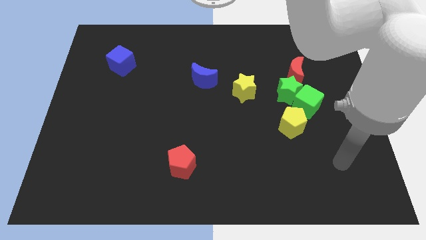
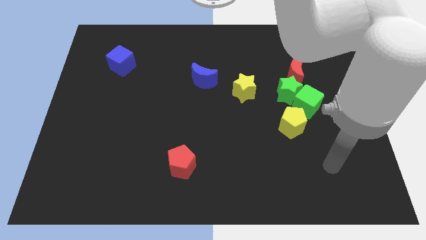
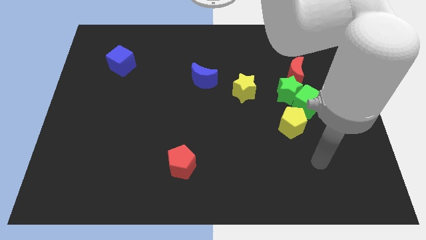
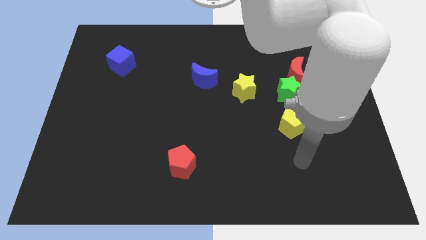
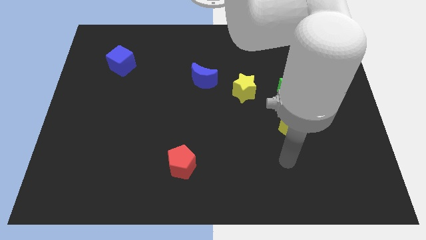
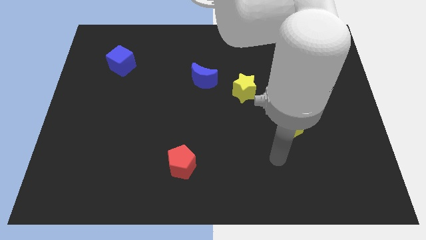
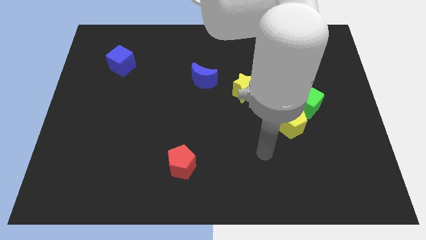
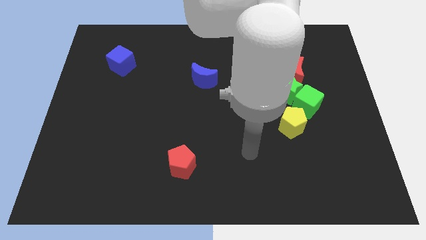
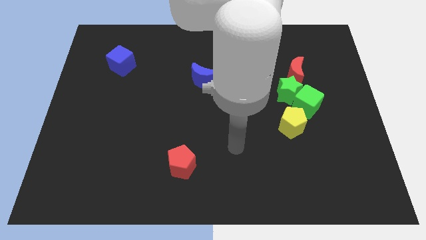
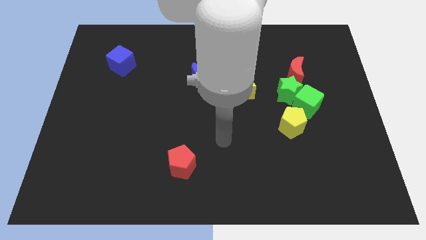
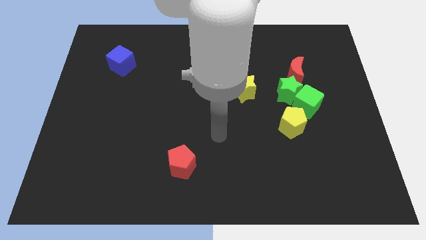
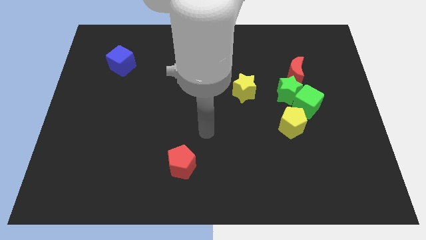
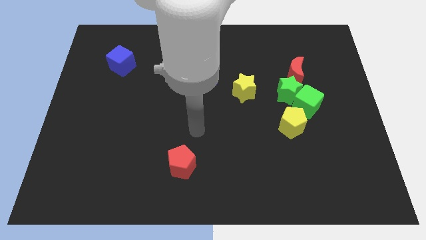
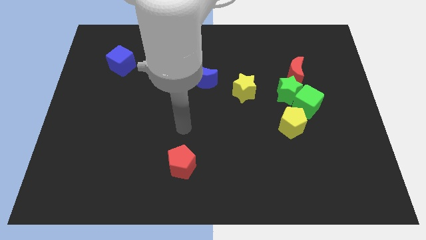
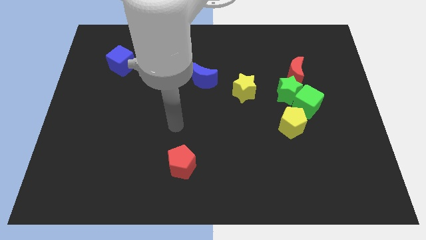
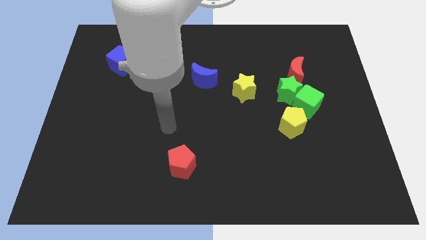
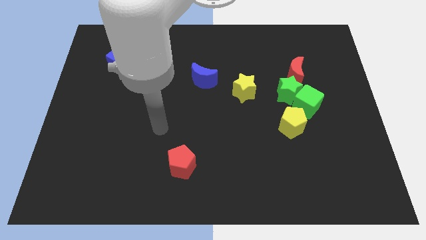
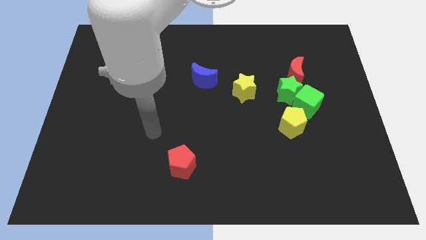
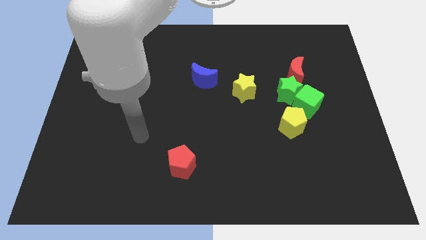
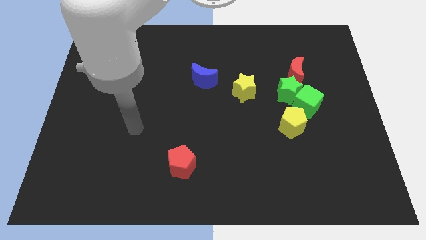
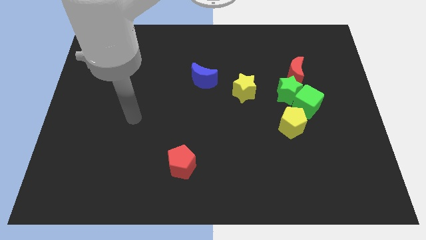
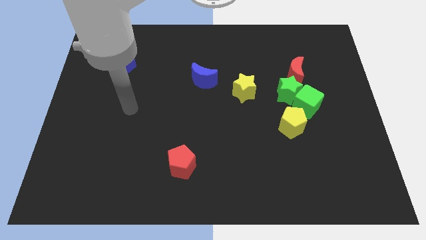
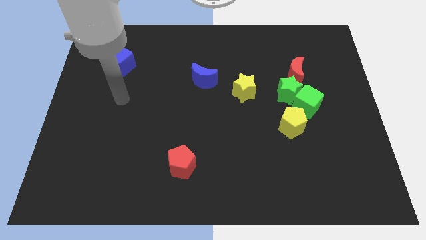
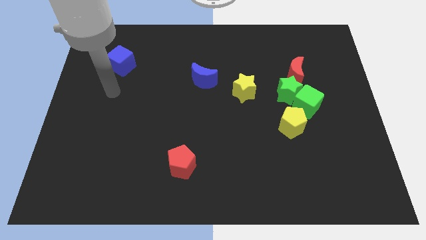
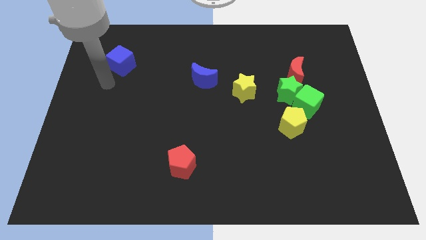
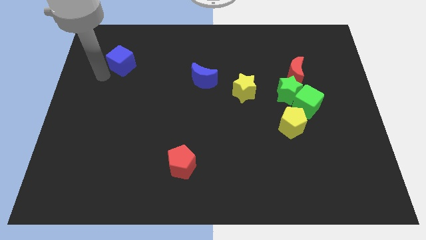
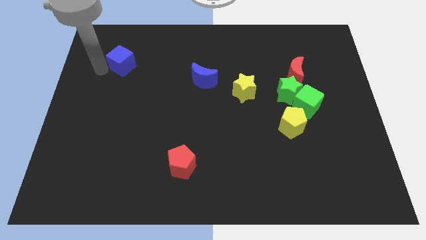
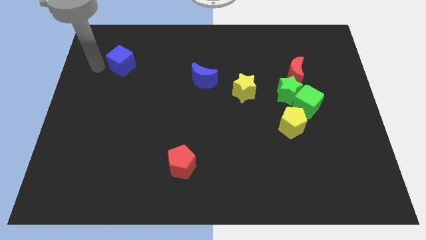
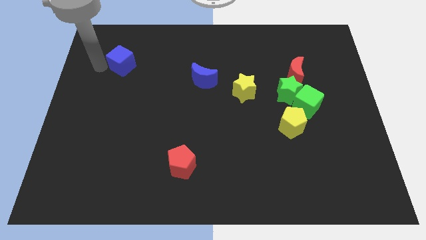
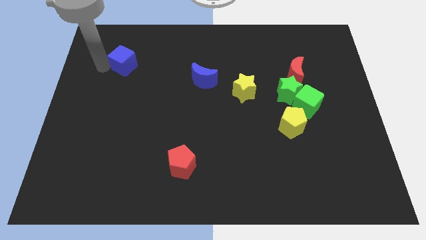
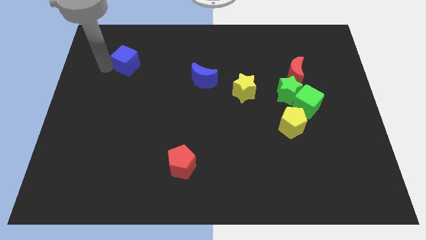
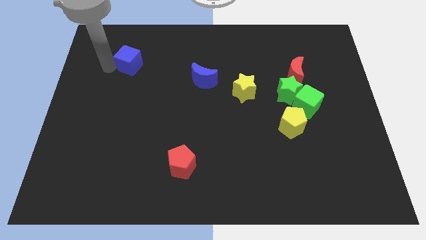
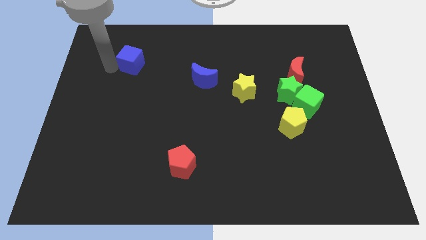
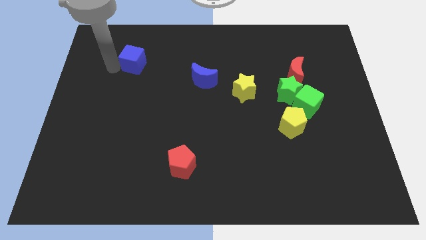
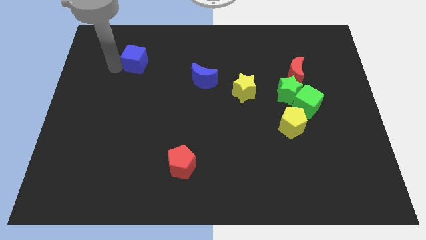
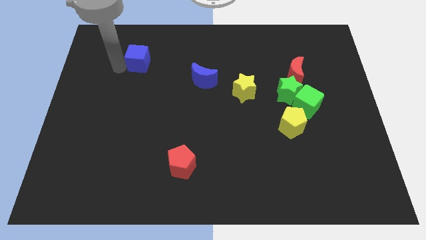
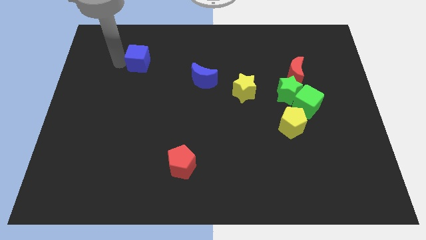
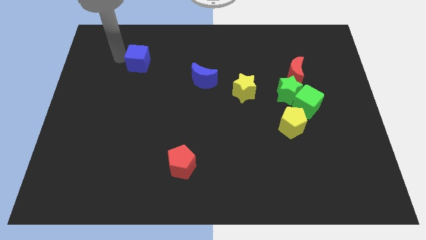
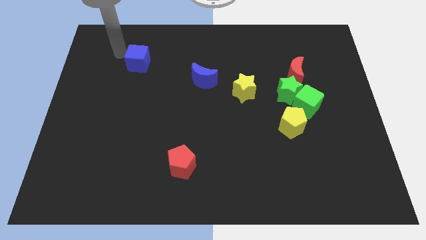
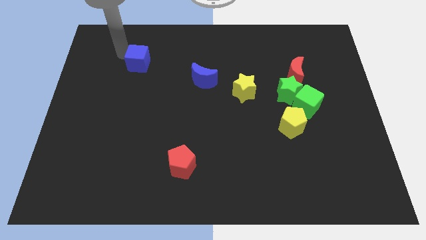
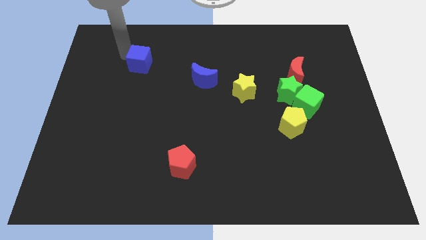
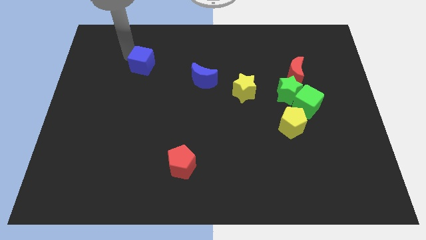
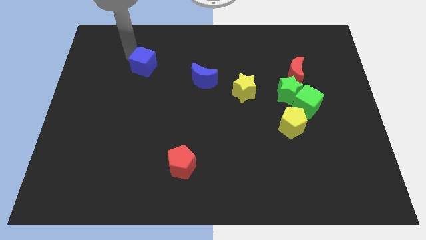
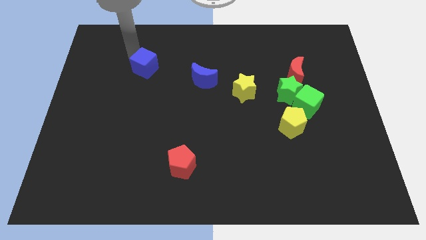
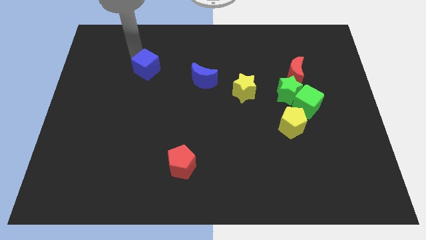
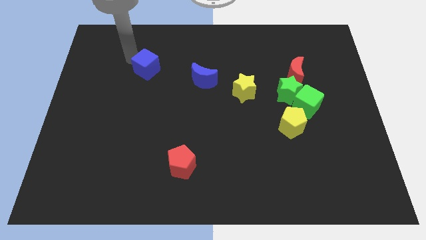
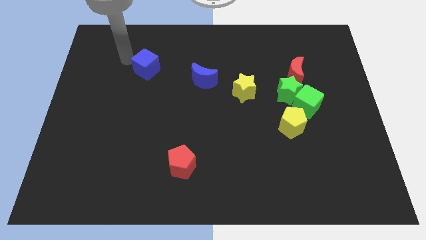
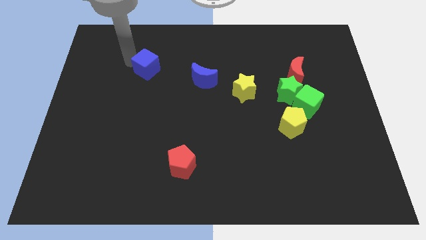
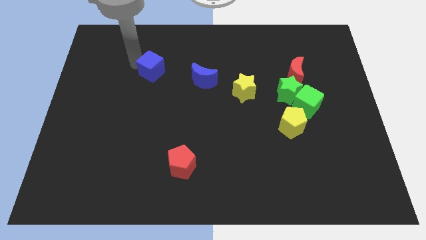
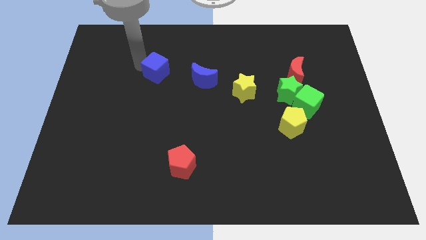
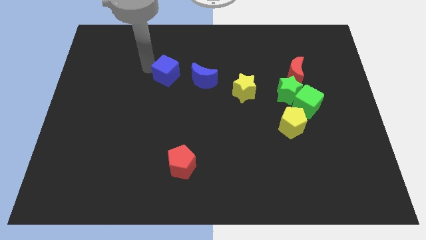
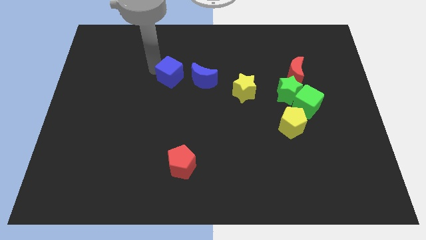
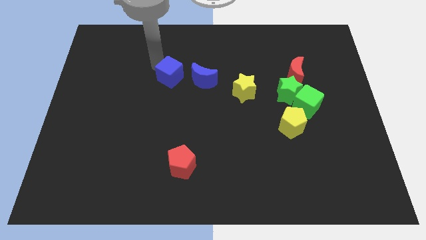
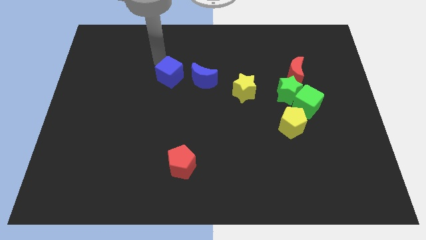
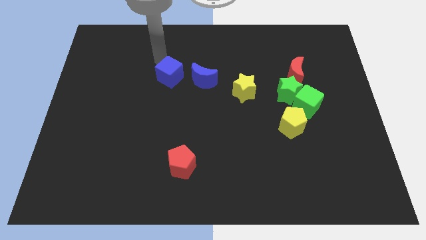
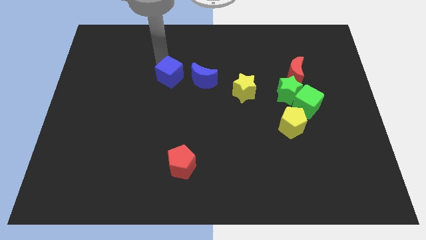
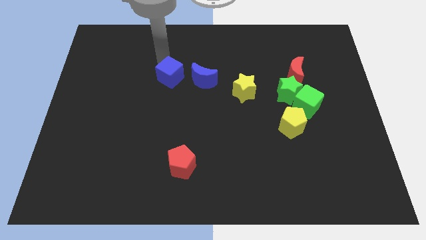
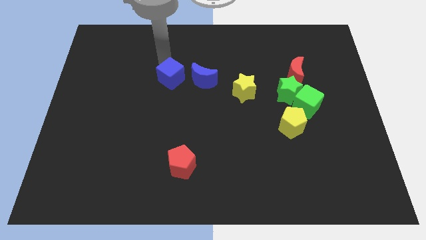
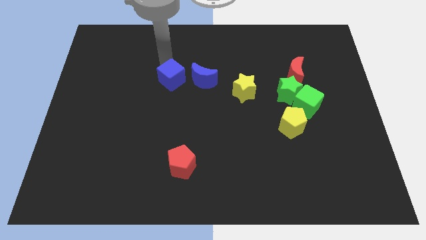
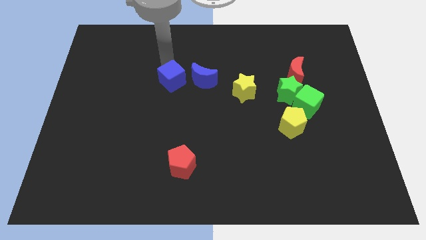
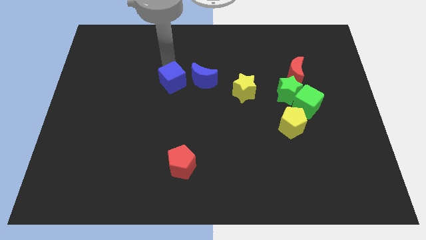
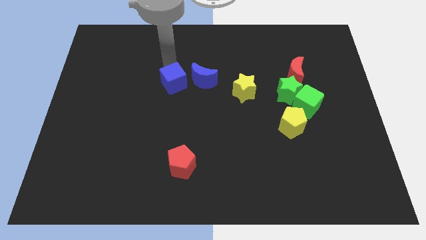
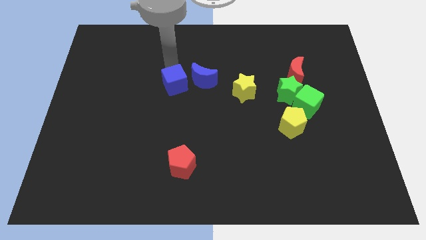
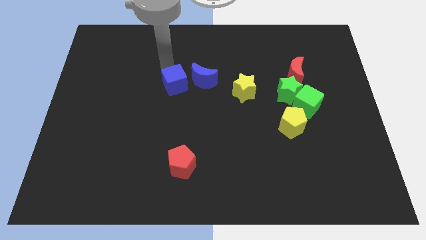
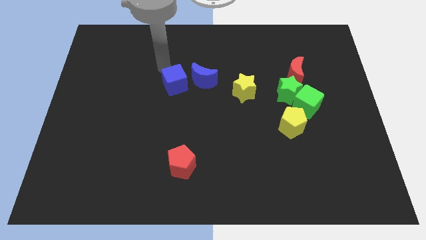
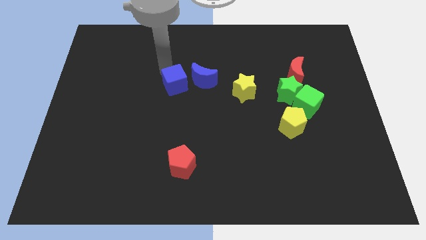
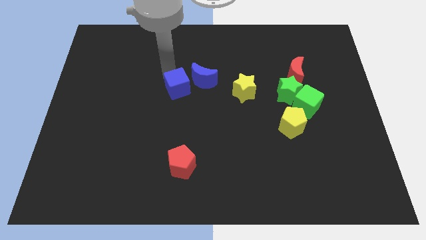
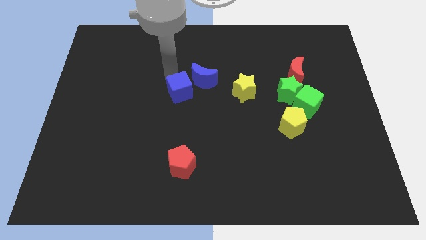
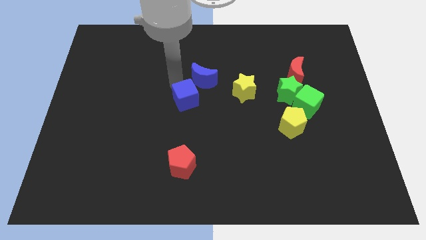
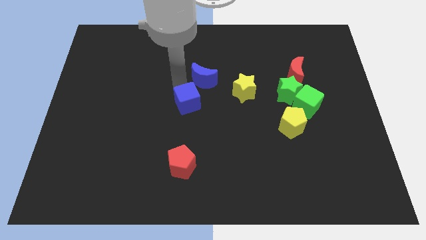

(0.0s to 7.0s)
slide the blue cube downwards and then right

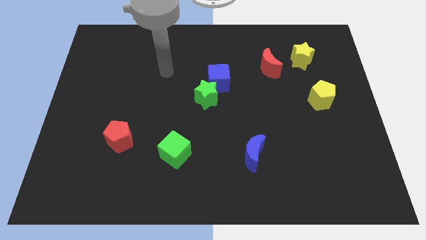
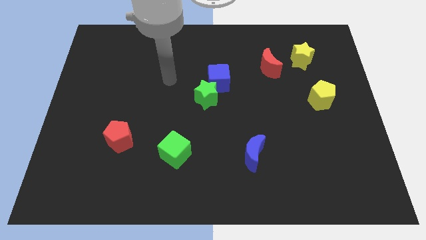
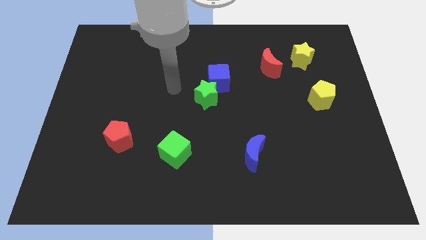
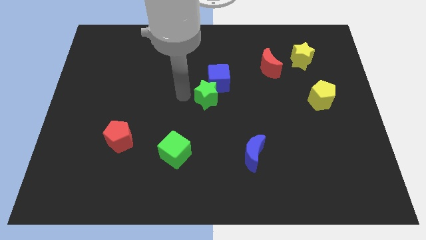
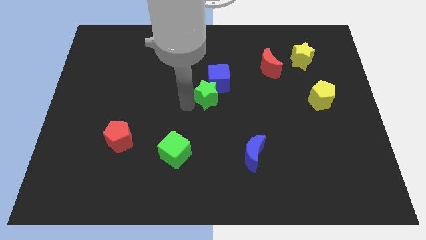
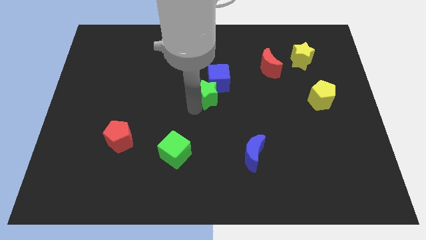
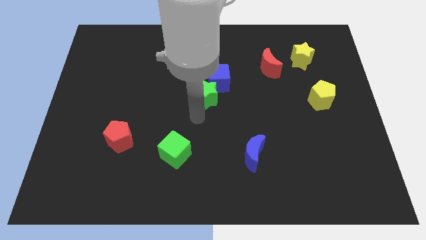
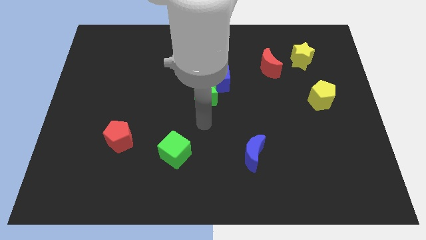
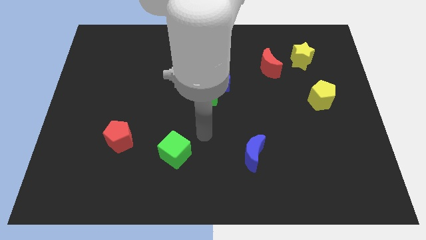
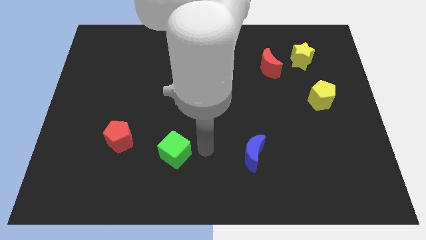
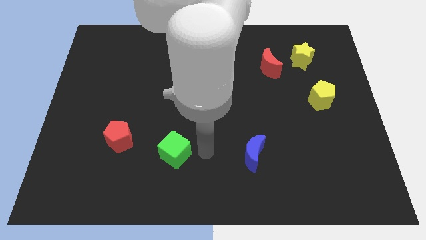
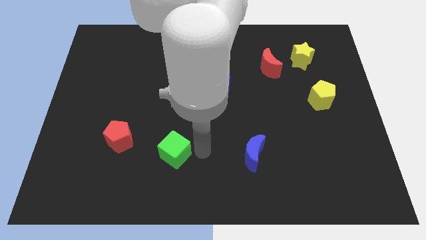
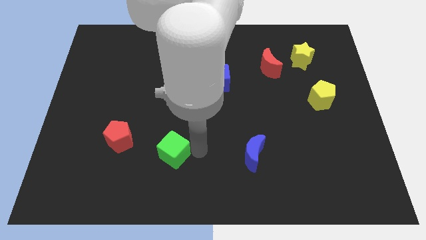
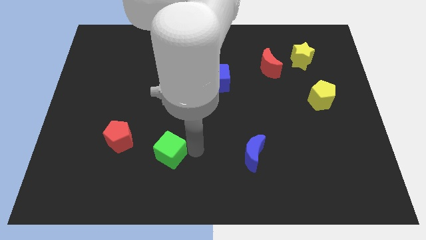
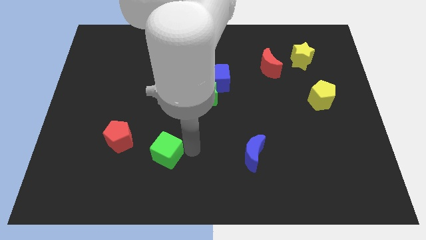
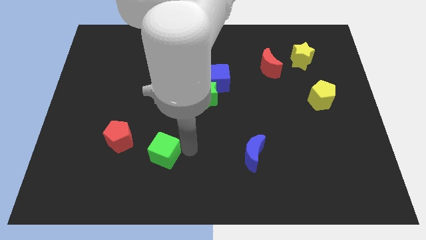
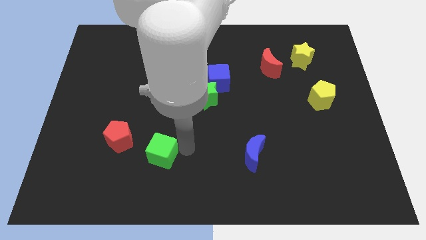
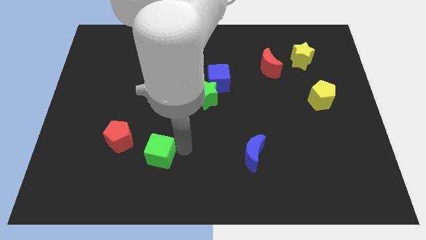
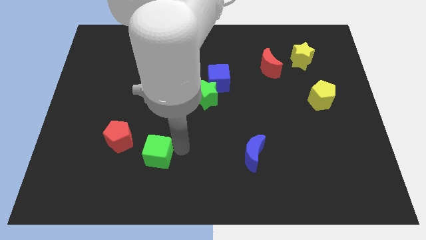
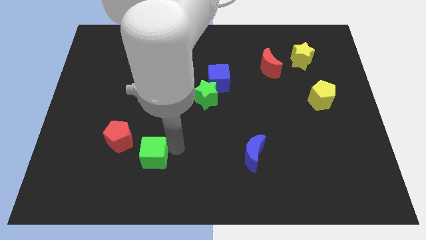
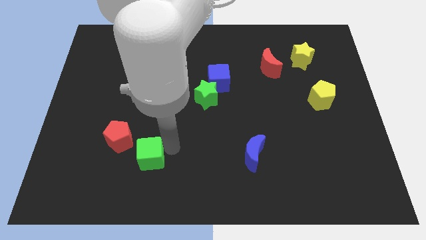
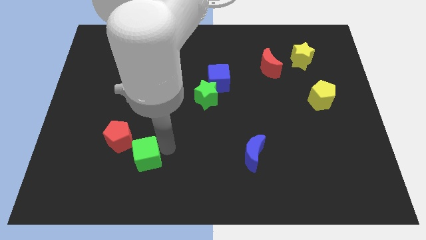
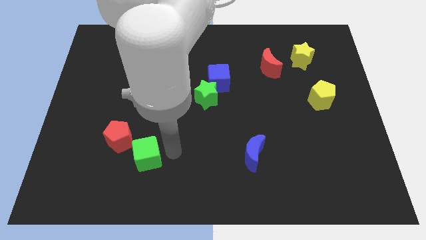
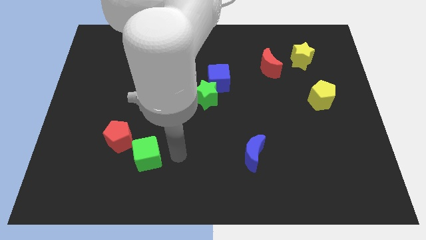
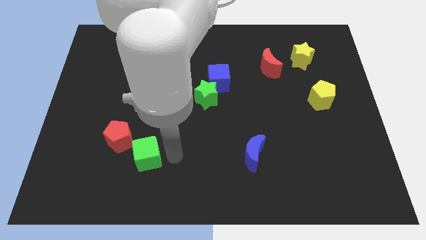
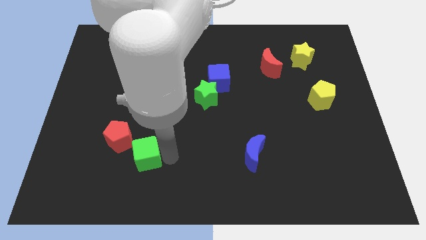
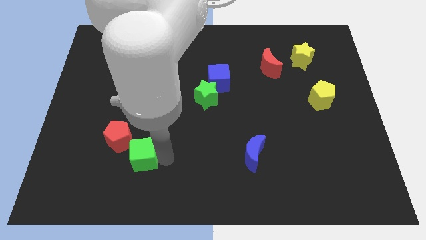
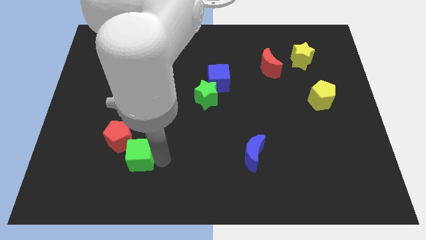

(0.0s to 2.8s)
slightly push the green cube left
